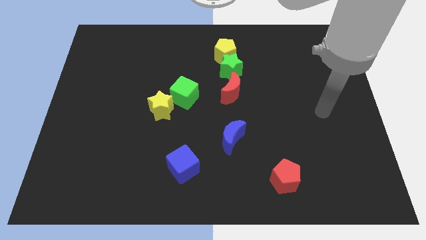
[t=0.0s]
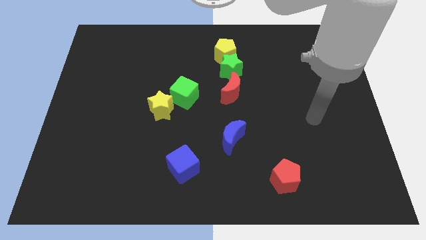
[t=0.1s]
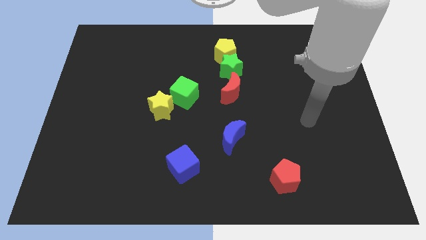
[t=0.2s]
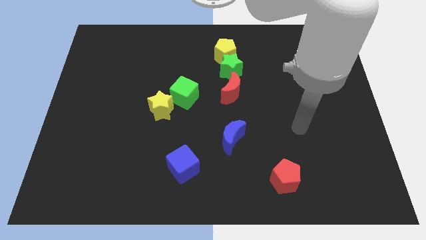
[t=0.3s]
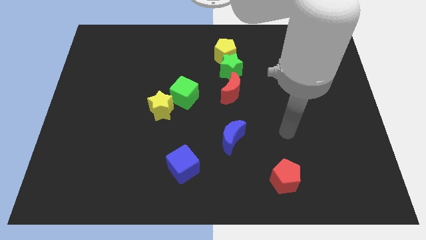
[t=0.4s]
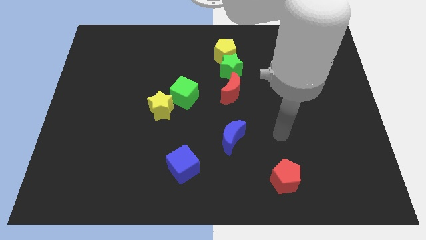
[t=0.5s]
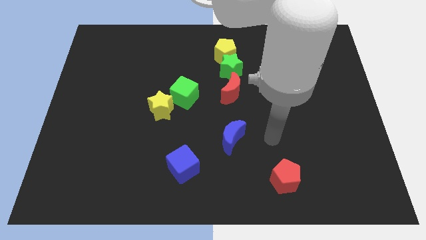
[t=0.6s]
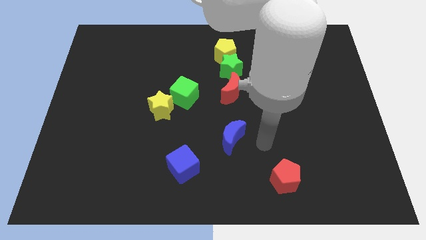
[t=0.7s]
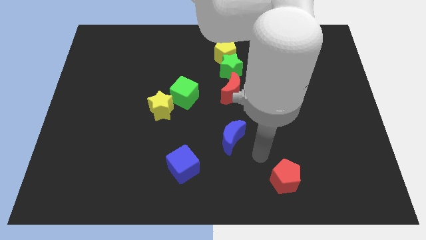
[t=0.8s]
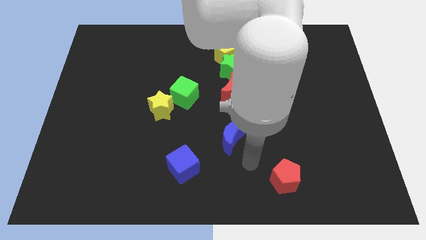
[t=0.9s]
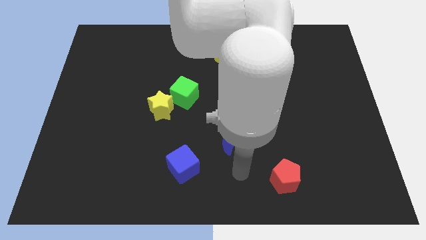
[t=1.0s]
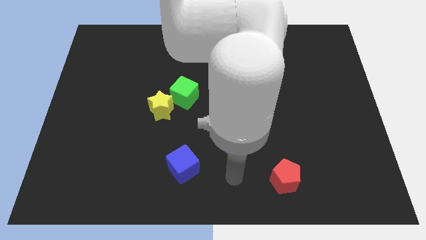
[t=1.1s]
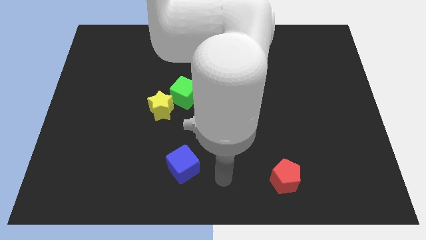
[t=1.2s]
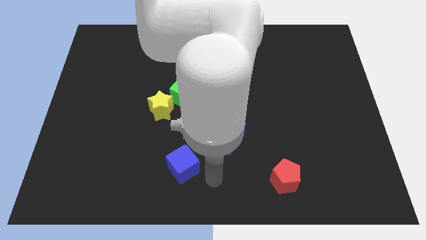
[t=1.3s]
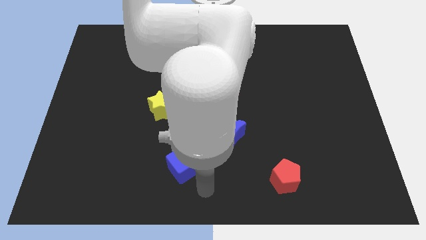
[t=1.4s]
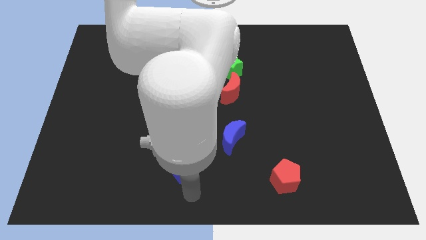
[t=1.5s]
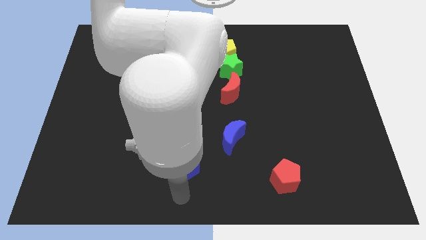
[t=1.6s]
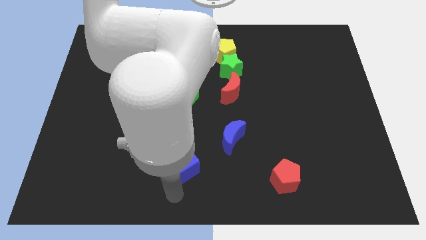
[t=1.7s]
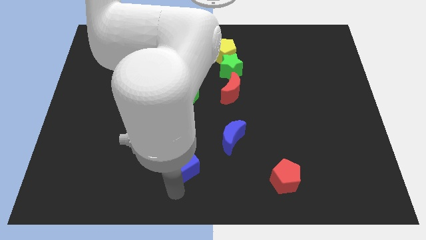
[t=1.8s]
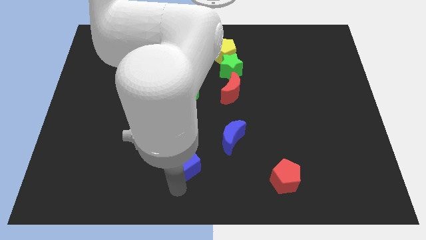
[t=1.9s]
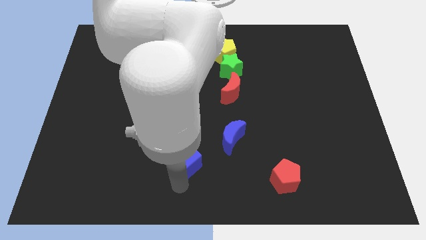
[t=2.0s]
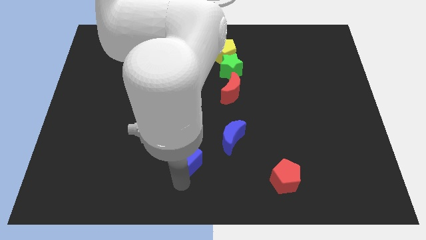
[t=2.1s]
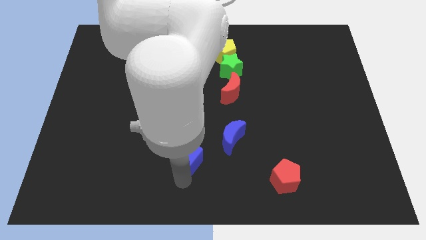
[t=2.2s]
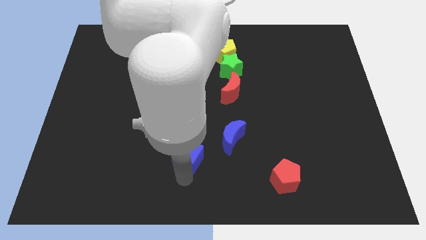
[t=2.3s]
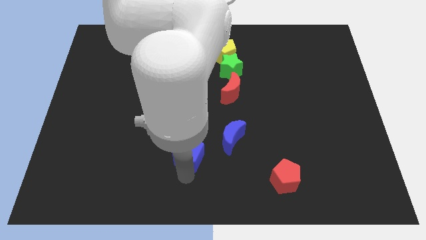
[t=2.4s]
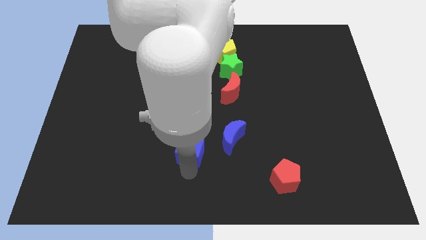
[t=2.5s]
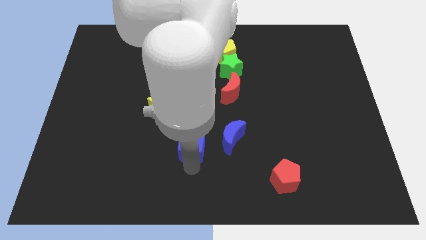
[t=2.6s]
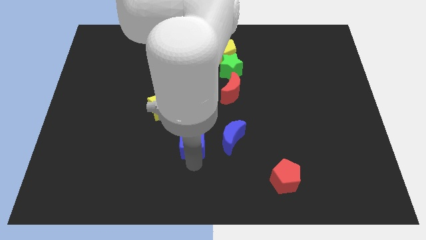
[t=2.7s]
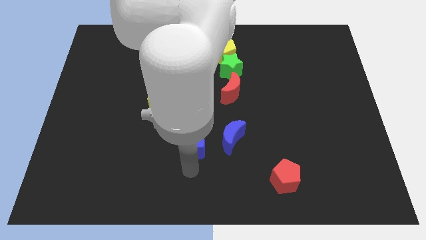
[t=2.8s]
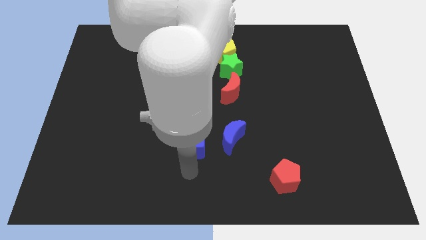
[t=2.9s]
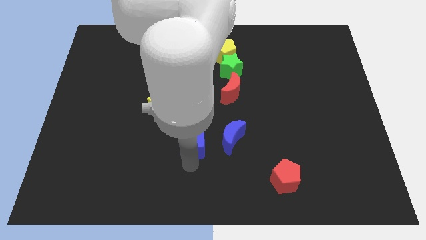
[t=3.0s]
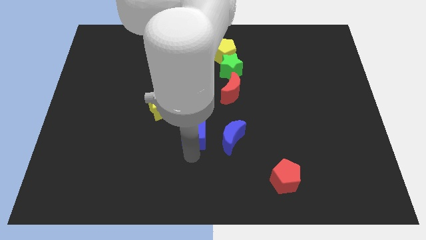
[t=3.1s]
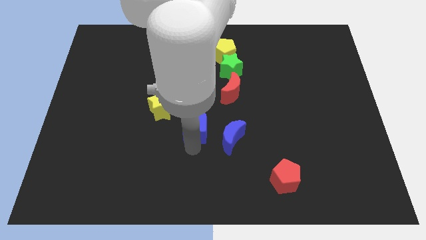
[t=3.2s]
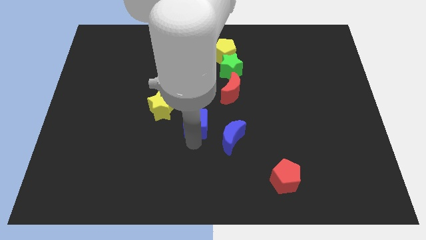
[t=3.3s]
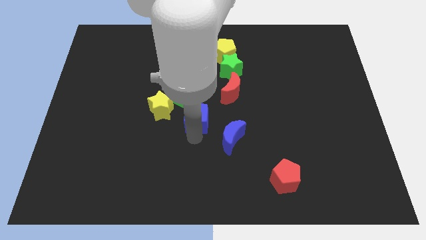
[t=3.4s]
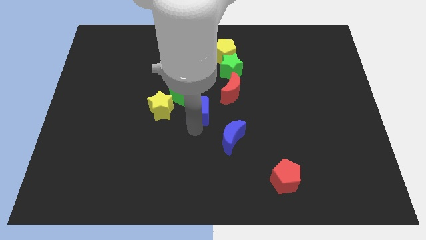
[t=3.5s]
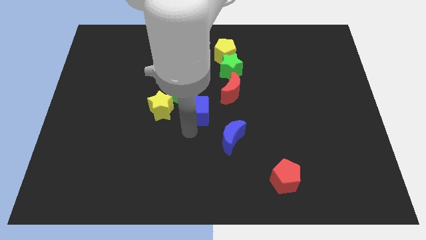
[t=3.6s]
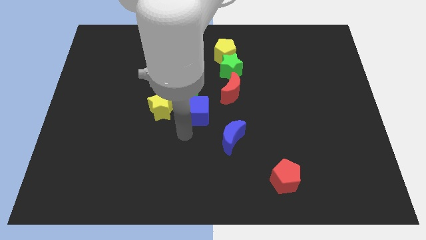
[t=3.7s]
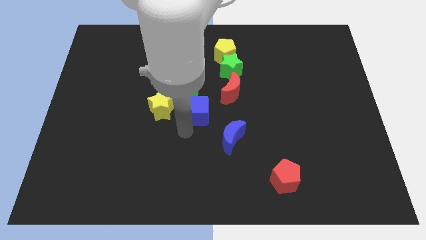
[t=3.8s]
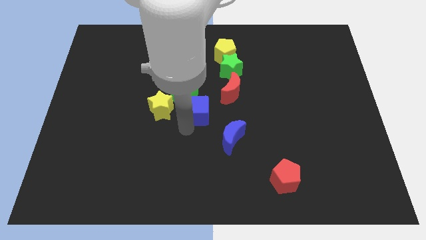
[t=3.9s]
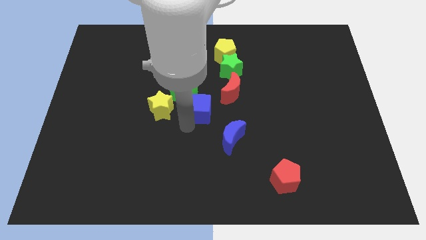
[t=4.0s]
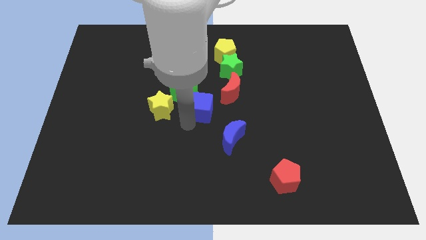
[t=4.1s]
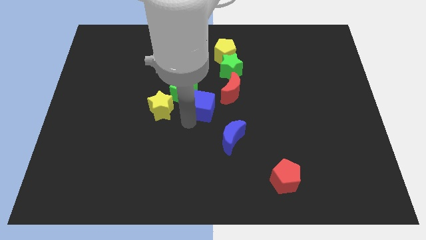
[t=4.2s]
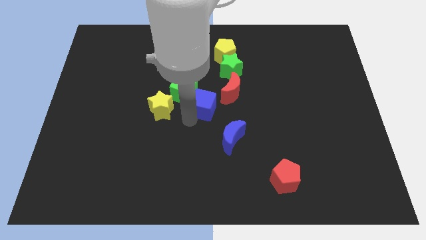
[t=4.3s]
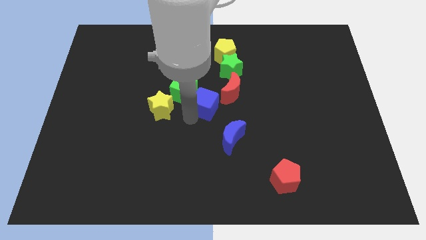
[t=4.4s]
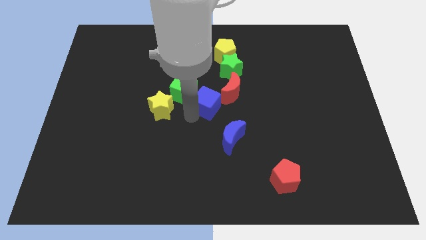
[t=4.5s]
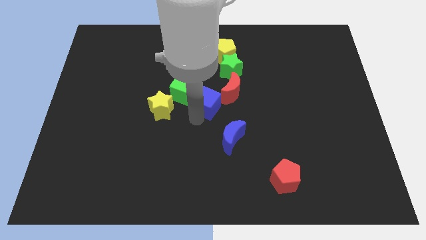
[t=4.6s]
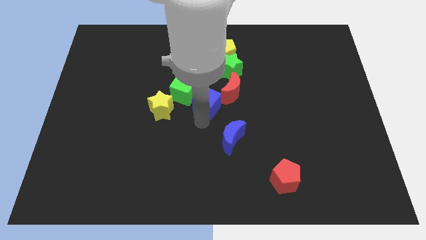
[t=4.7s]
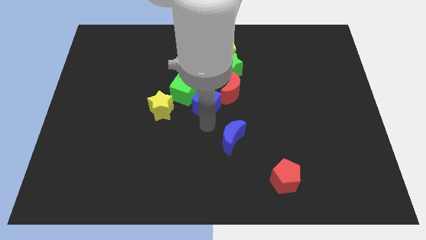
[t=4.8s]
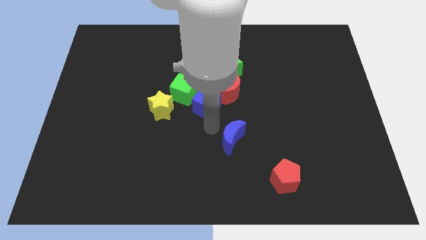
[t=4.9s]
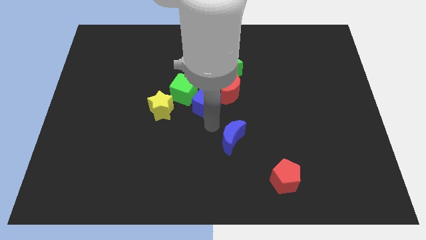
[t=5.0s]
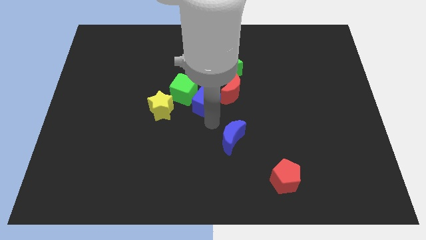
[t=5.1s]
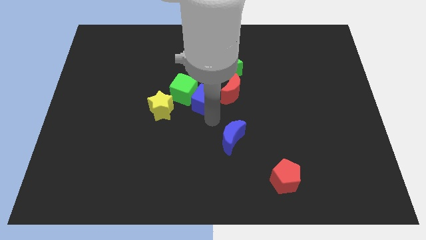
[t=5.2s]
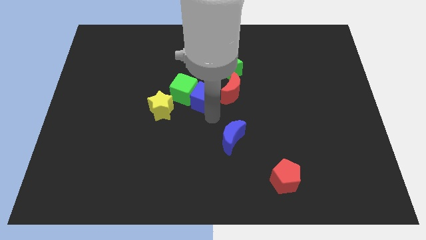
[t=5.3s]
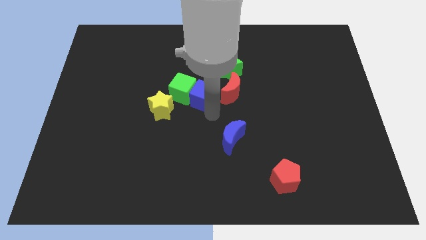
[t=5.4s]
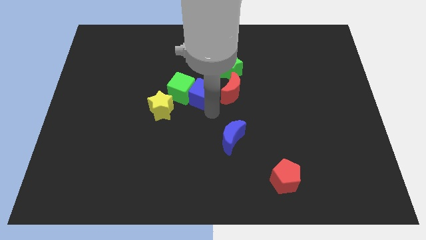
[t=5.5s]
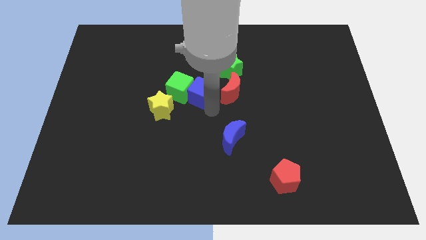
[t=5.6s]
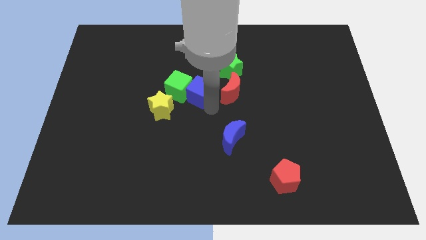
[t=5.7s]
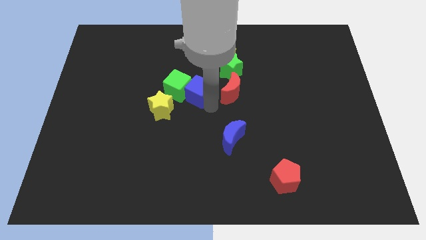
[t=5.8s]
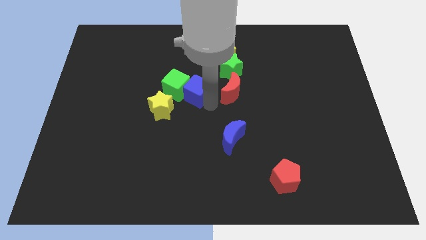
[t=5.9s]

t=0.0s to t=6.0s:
slide the blue cube upwards

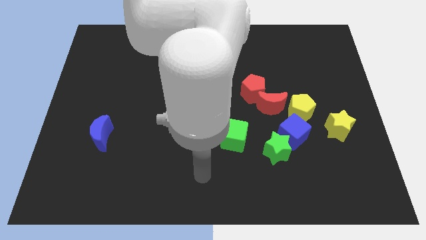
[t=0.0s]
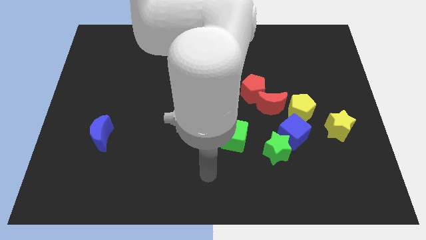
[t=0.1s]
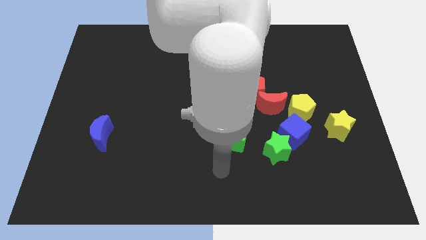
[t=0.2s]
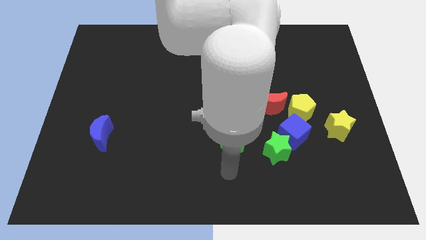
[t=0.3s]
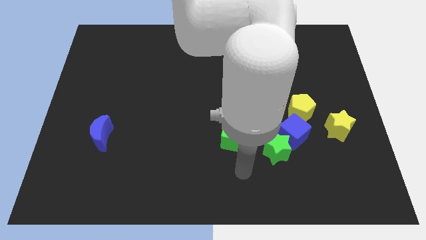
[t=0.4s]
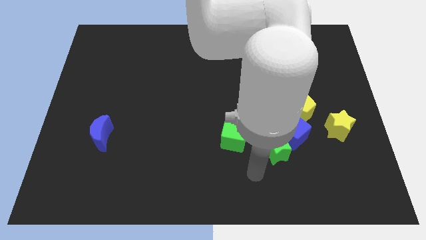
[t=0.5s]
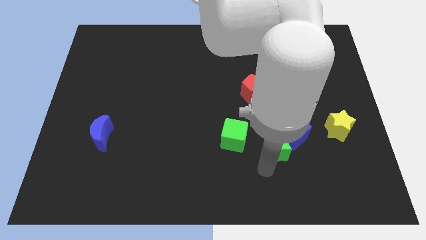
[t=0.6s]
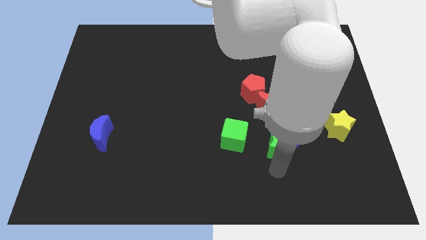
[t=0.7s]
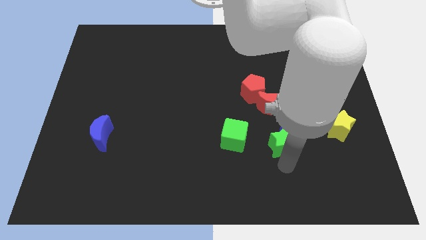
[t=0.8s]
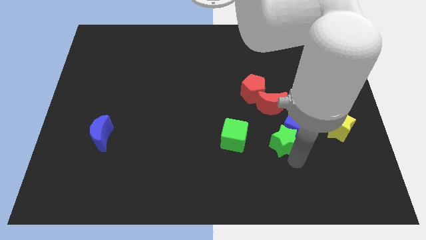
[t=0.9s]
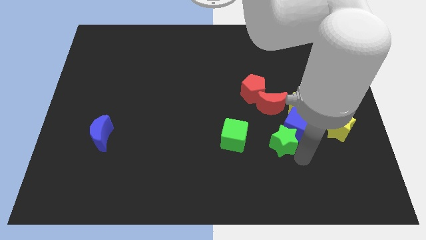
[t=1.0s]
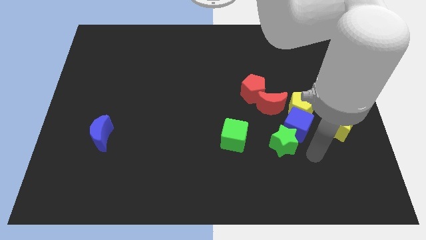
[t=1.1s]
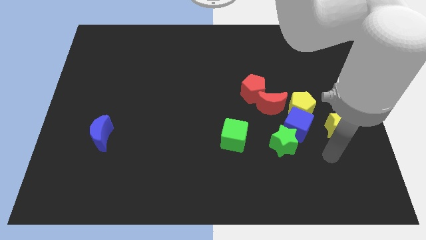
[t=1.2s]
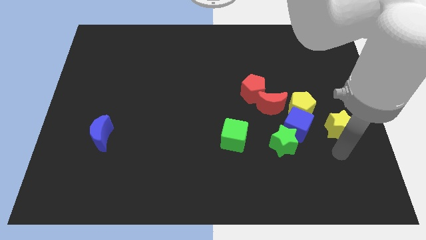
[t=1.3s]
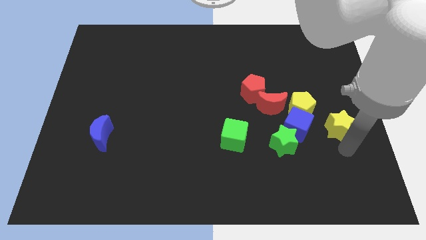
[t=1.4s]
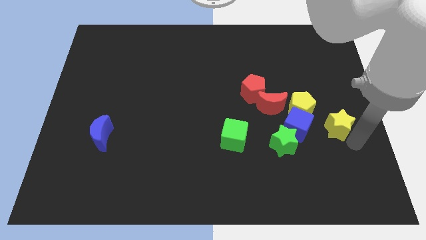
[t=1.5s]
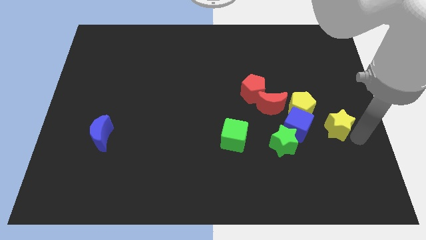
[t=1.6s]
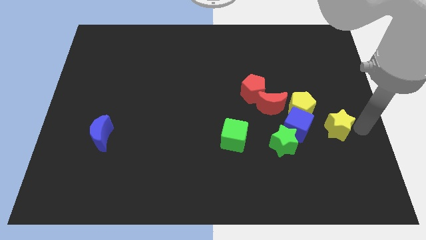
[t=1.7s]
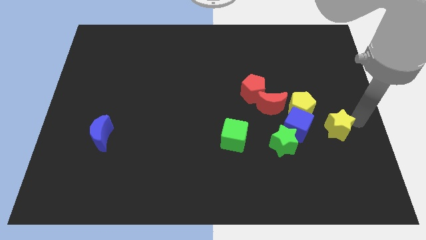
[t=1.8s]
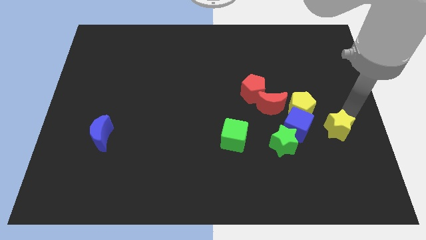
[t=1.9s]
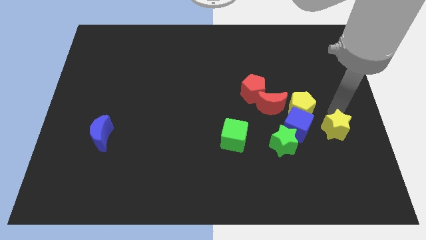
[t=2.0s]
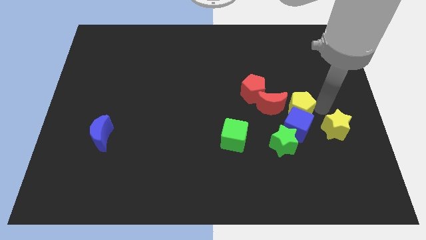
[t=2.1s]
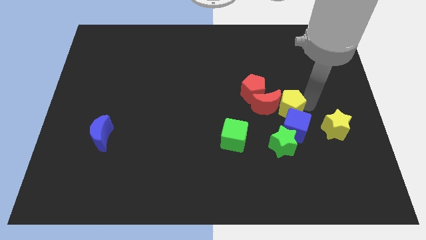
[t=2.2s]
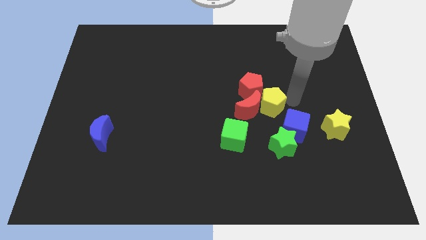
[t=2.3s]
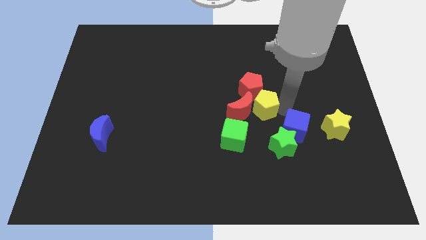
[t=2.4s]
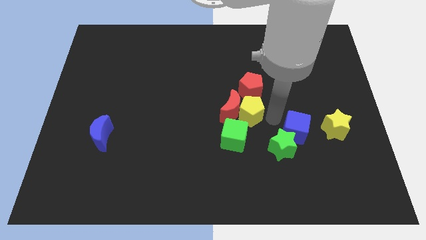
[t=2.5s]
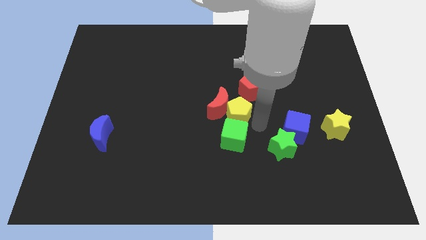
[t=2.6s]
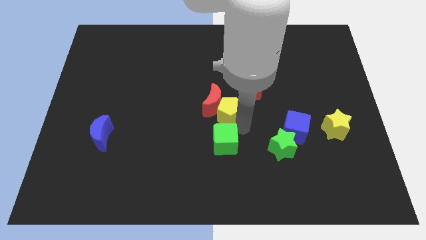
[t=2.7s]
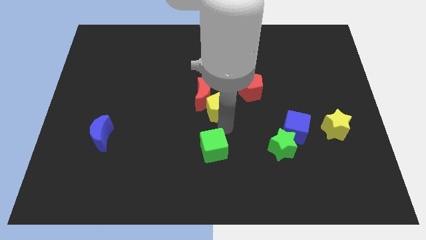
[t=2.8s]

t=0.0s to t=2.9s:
slide the red moon upwards and to the left somewhat
